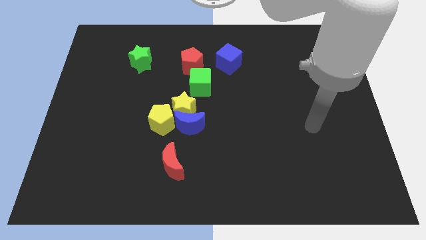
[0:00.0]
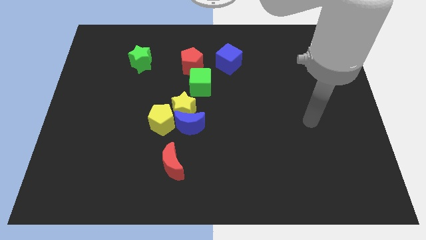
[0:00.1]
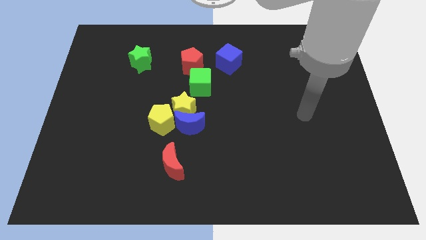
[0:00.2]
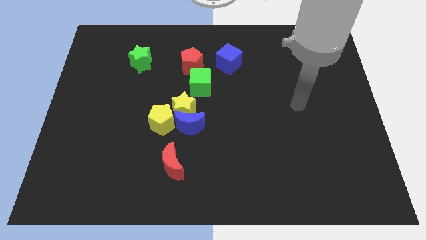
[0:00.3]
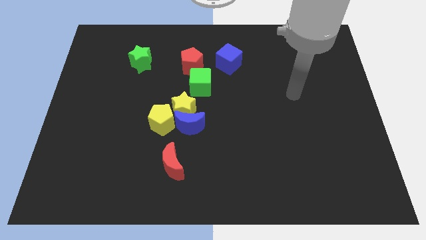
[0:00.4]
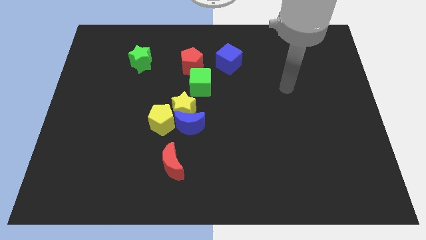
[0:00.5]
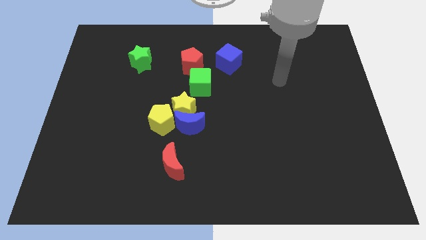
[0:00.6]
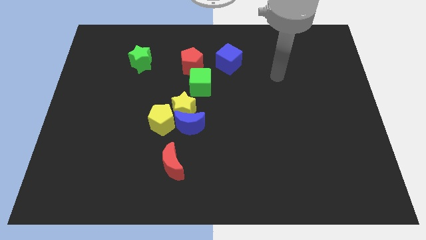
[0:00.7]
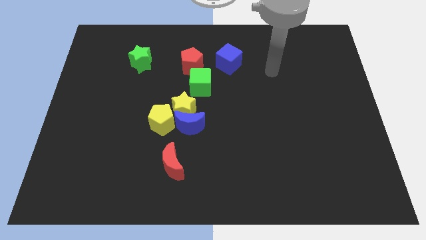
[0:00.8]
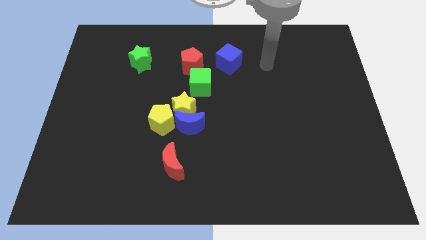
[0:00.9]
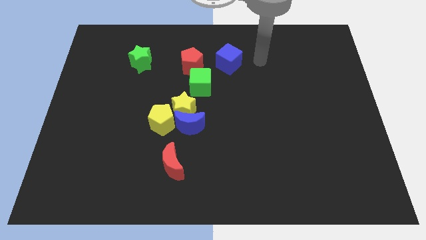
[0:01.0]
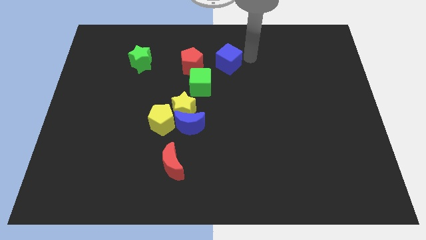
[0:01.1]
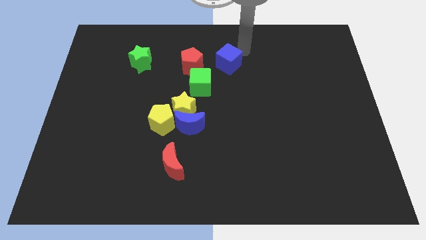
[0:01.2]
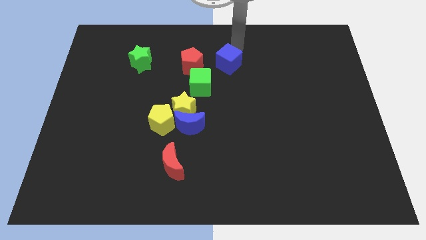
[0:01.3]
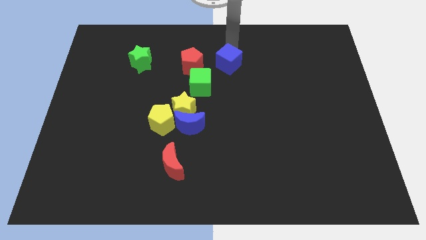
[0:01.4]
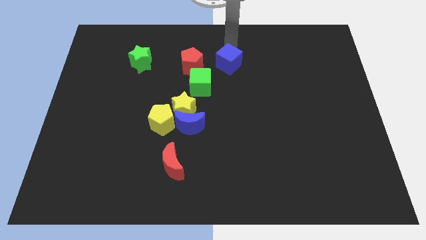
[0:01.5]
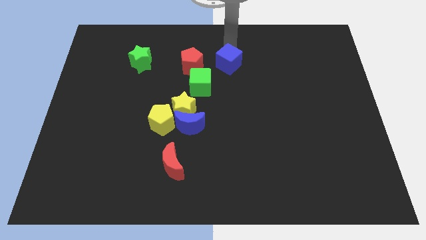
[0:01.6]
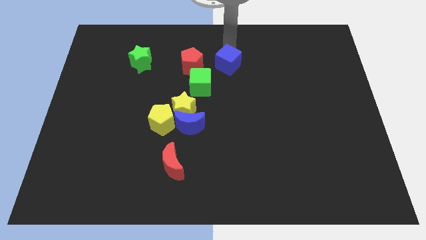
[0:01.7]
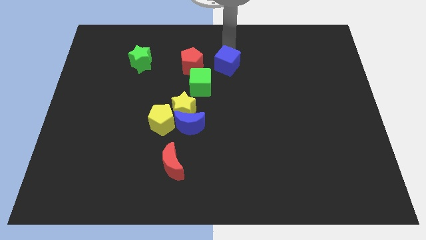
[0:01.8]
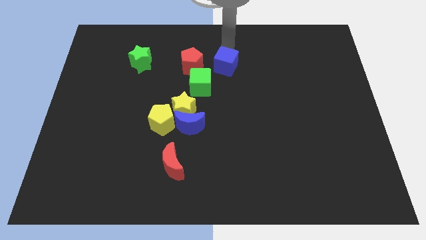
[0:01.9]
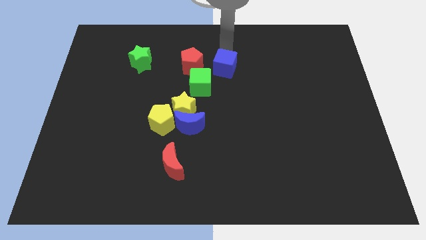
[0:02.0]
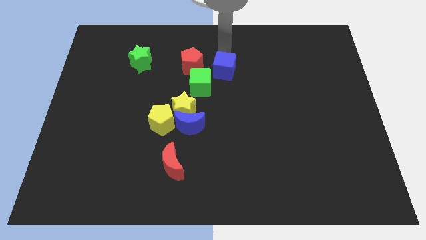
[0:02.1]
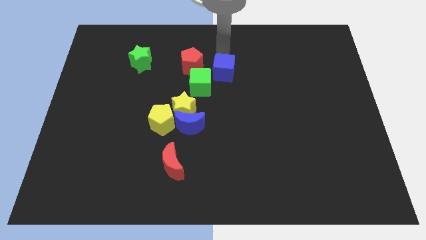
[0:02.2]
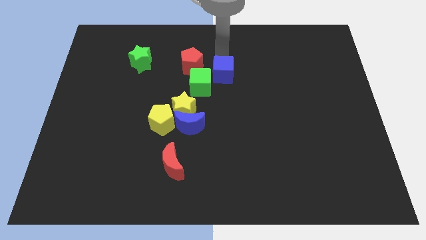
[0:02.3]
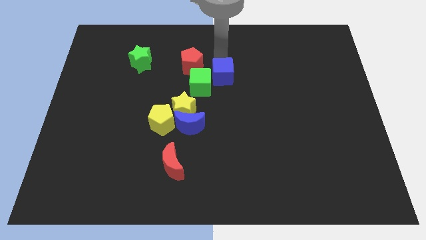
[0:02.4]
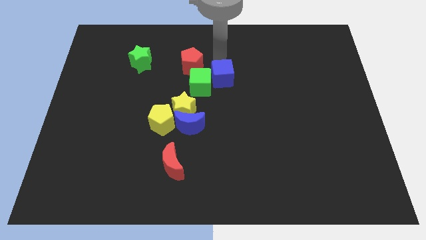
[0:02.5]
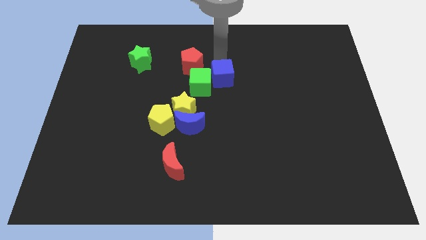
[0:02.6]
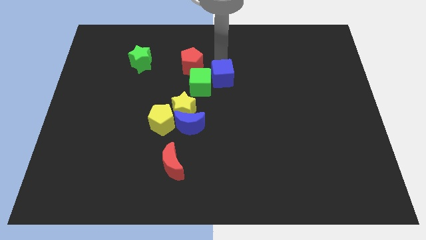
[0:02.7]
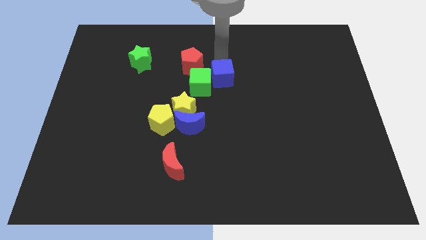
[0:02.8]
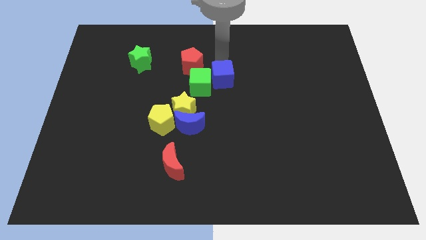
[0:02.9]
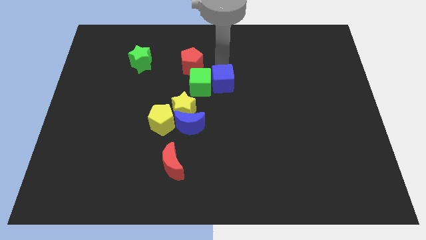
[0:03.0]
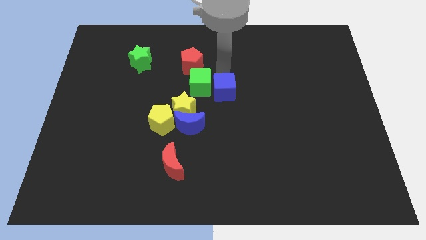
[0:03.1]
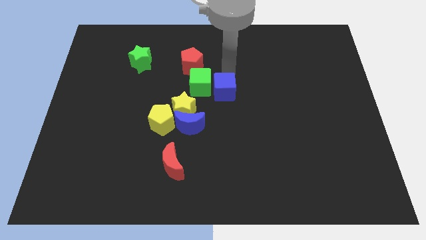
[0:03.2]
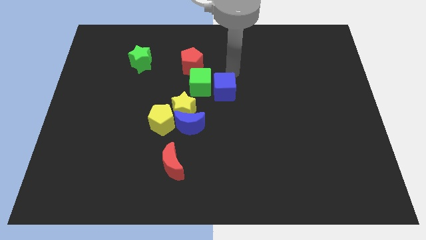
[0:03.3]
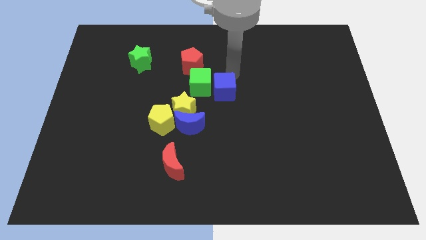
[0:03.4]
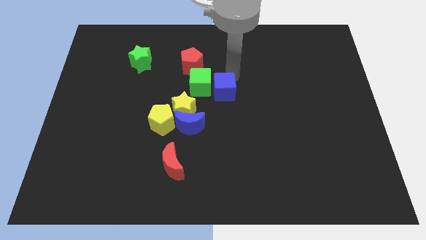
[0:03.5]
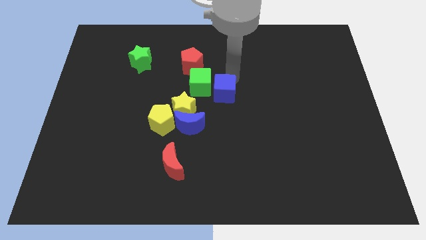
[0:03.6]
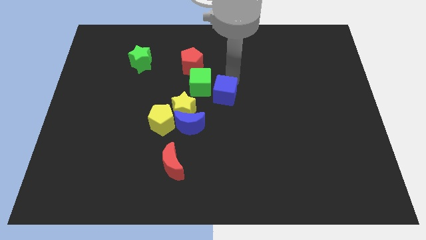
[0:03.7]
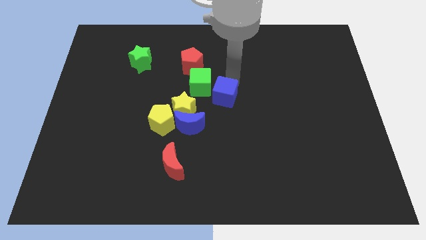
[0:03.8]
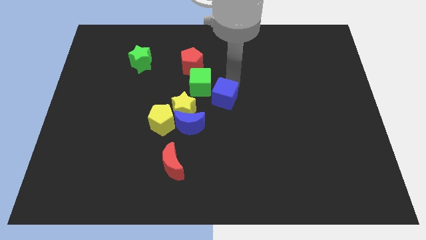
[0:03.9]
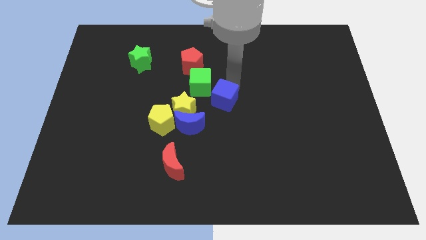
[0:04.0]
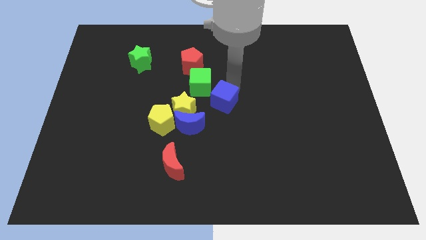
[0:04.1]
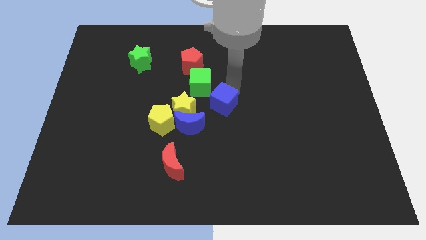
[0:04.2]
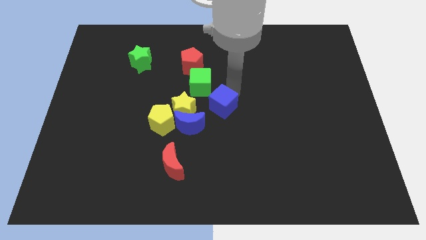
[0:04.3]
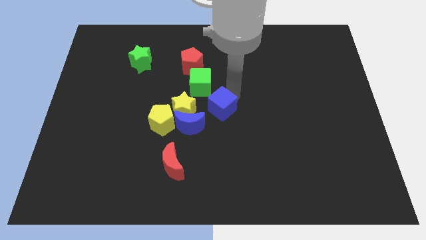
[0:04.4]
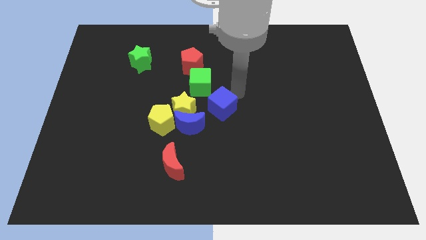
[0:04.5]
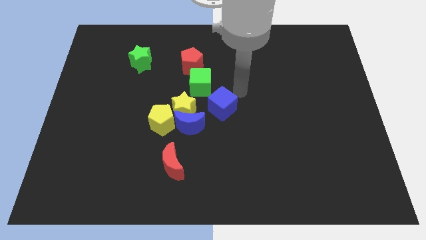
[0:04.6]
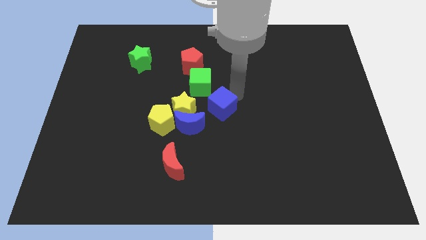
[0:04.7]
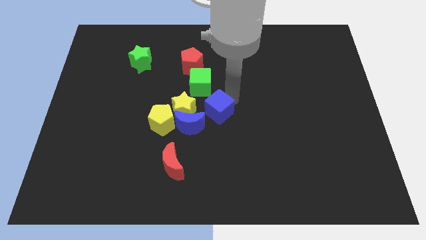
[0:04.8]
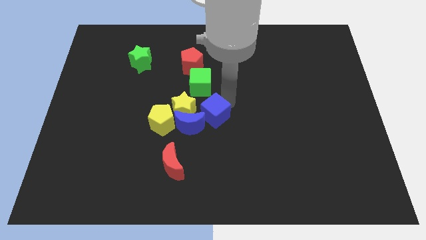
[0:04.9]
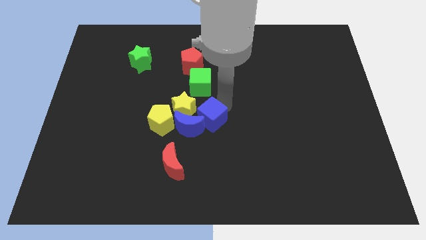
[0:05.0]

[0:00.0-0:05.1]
put the blue cube to the blue moon

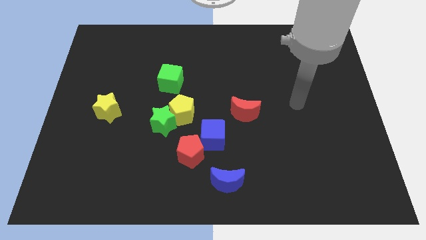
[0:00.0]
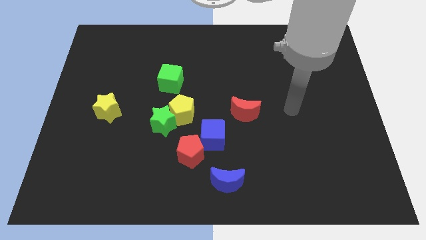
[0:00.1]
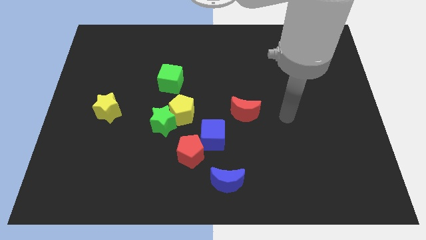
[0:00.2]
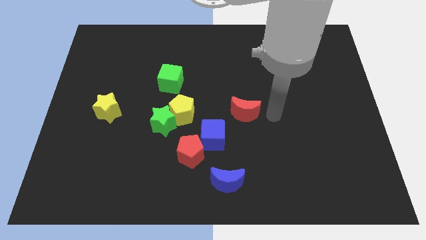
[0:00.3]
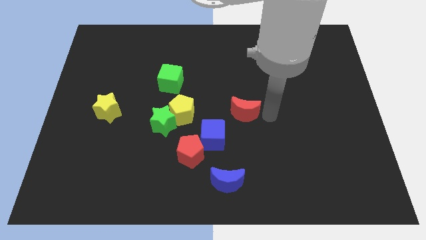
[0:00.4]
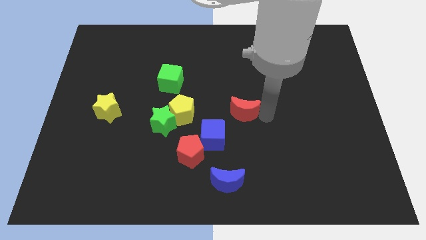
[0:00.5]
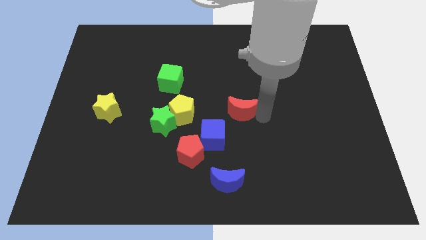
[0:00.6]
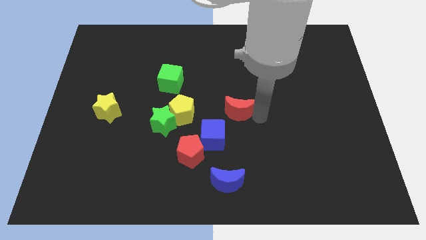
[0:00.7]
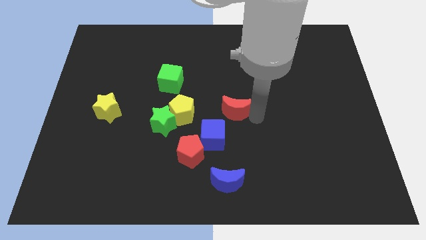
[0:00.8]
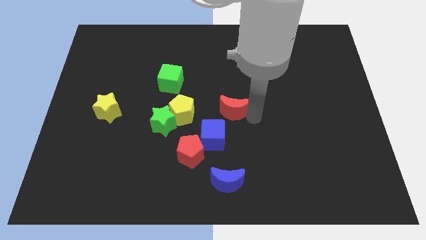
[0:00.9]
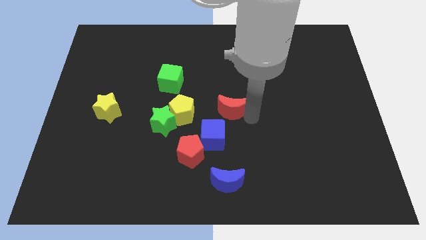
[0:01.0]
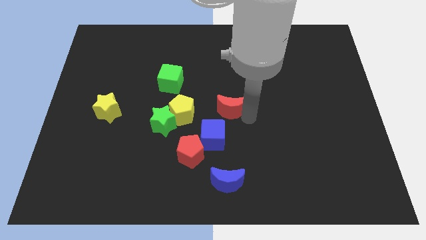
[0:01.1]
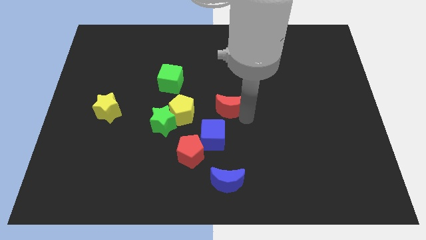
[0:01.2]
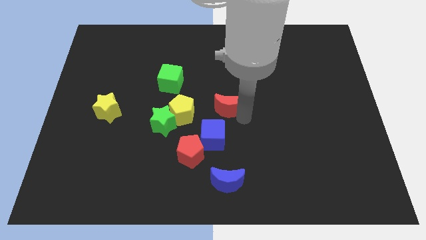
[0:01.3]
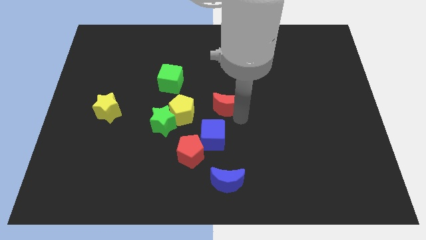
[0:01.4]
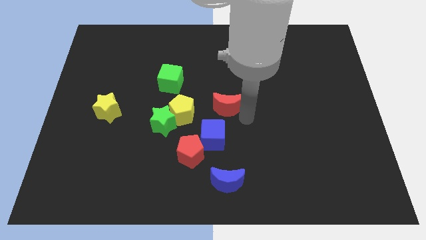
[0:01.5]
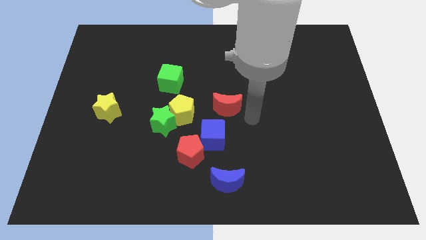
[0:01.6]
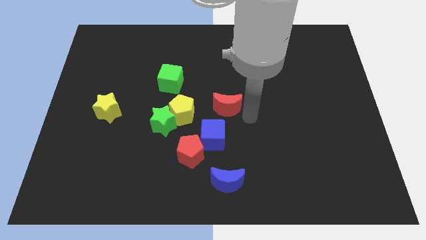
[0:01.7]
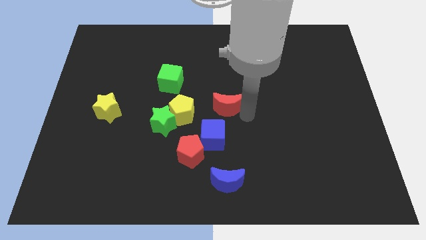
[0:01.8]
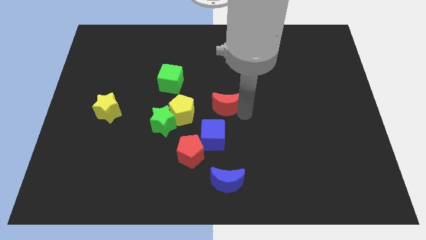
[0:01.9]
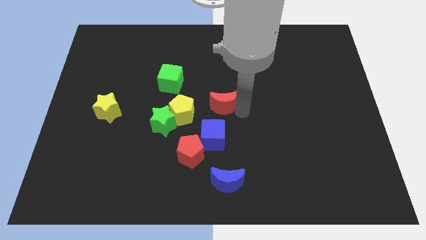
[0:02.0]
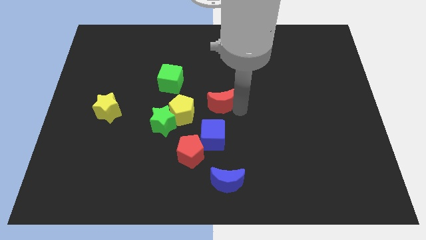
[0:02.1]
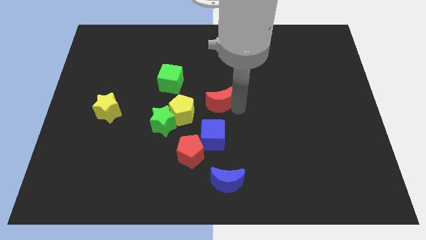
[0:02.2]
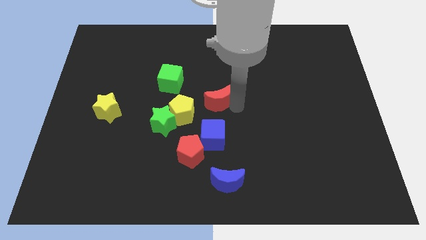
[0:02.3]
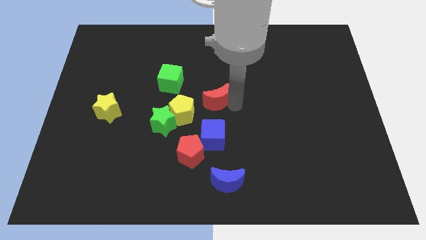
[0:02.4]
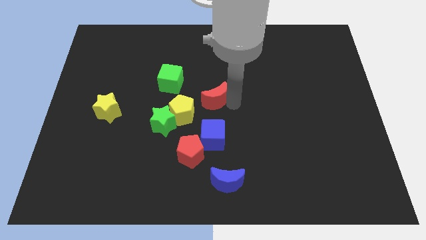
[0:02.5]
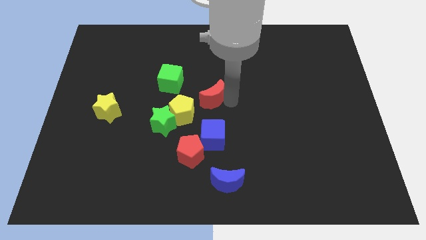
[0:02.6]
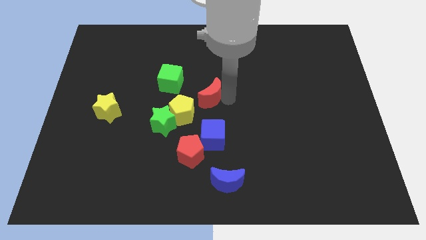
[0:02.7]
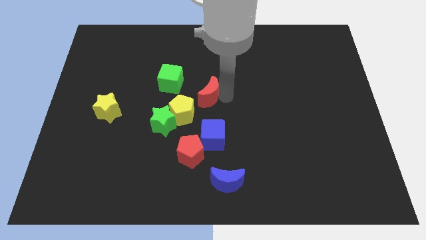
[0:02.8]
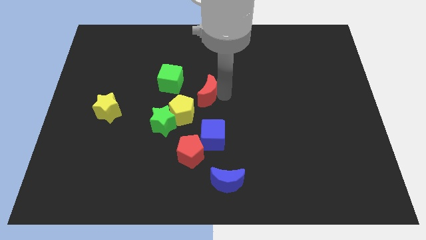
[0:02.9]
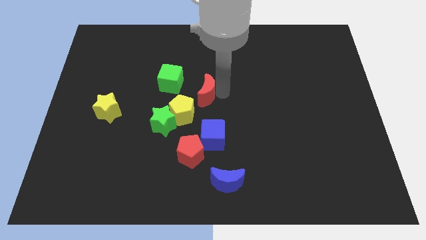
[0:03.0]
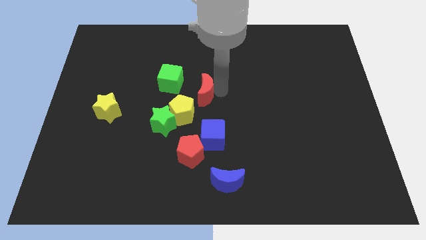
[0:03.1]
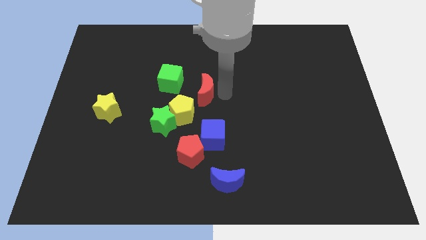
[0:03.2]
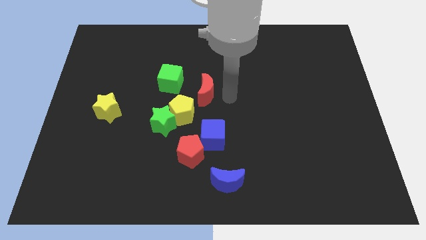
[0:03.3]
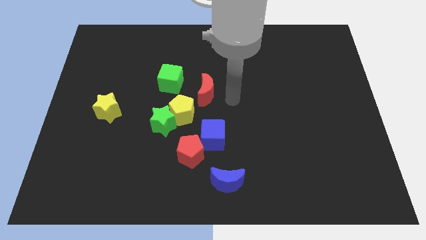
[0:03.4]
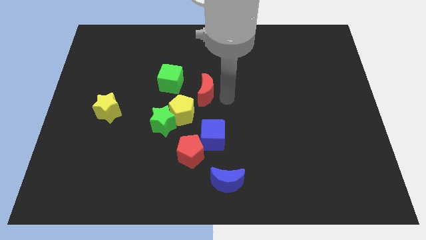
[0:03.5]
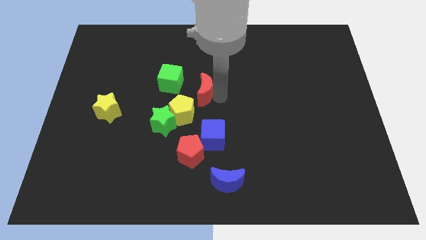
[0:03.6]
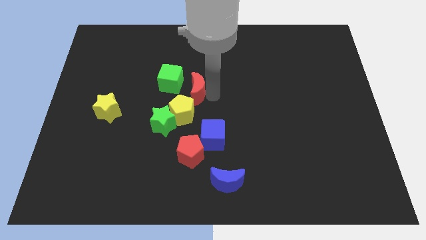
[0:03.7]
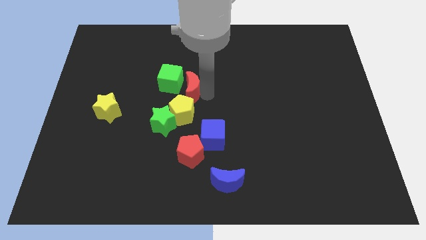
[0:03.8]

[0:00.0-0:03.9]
slide the red moon towards the green cube
